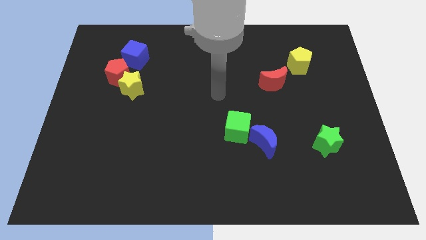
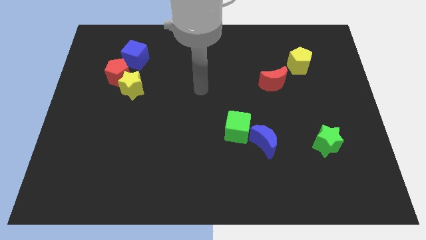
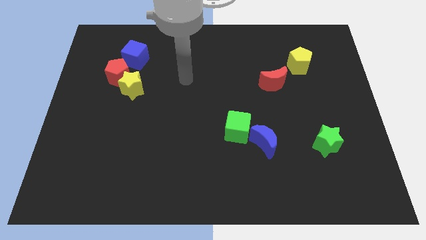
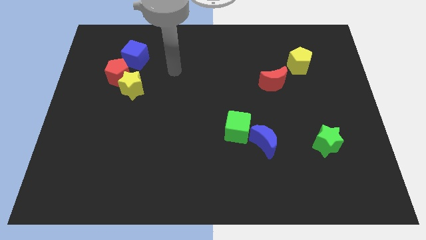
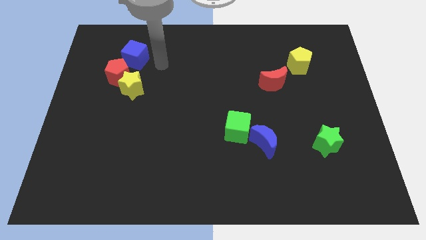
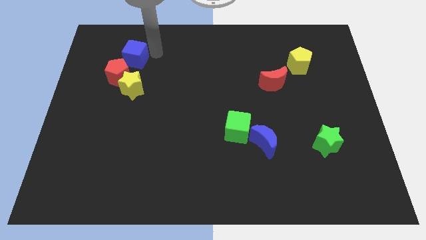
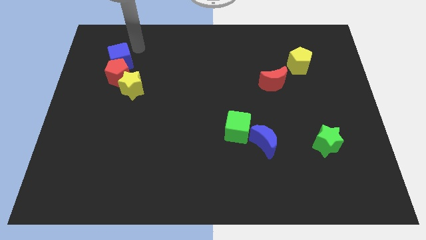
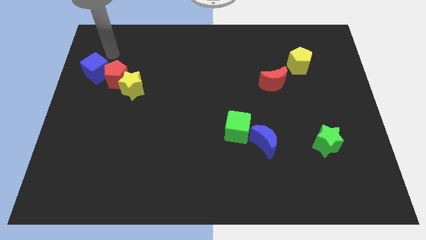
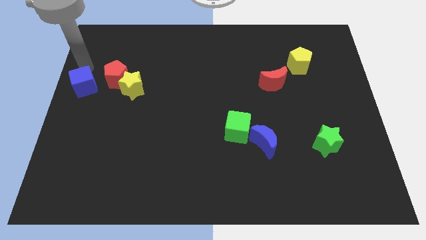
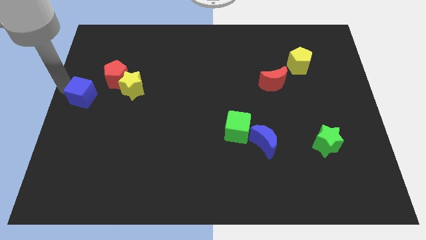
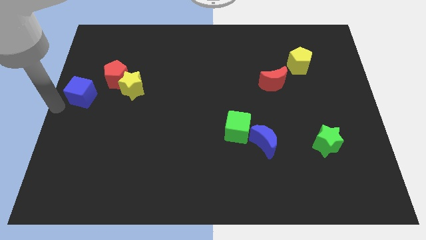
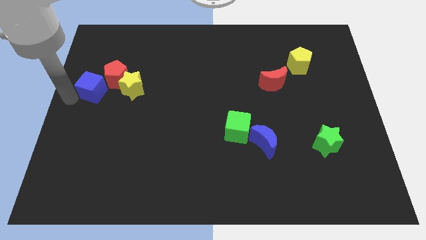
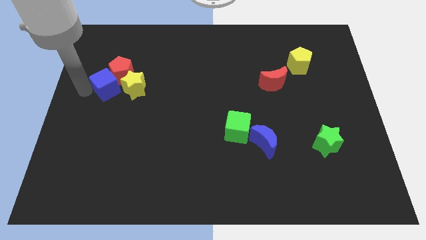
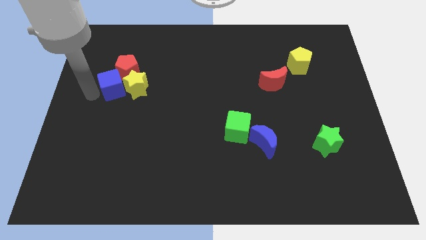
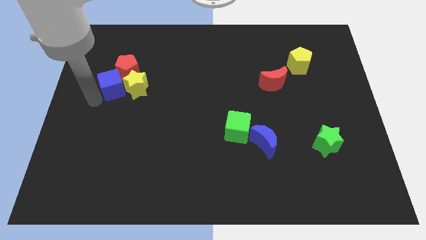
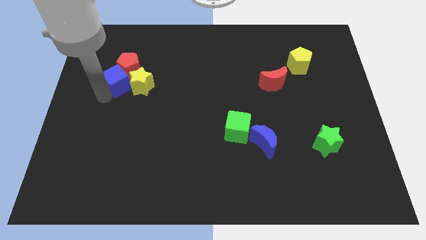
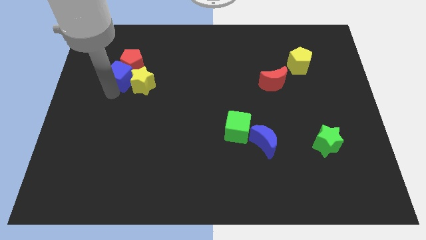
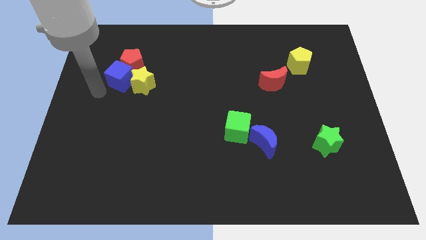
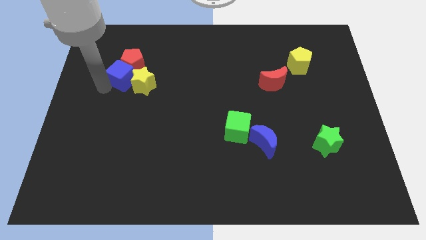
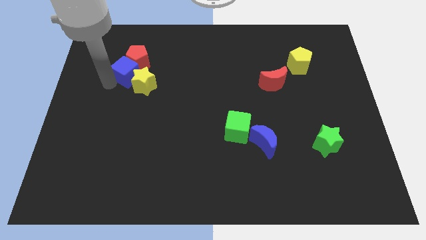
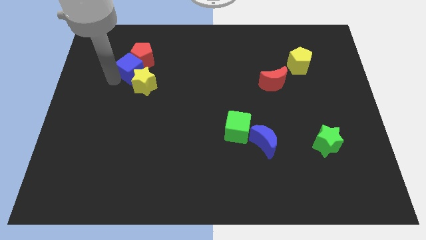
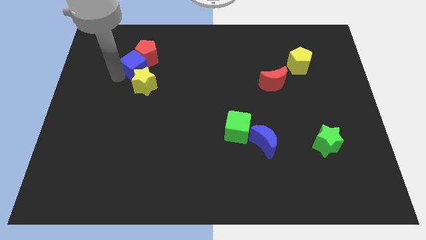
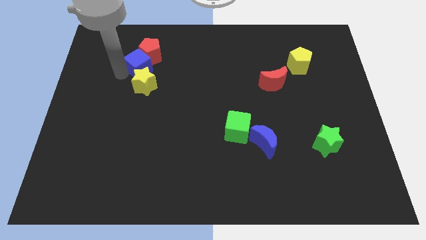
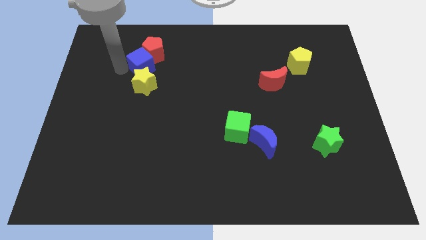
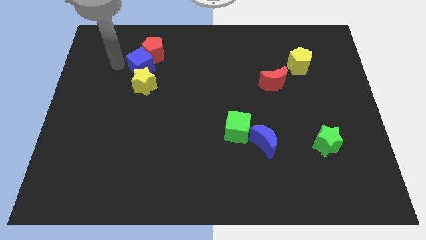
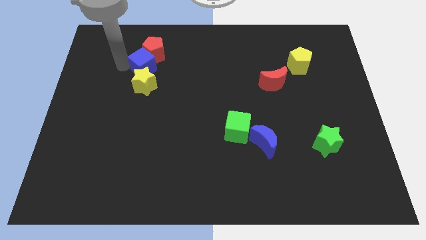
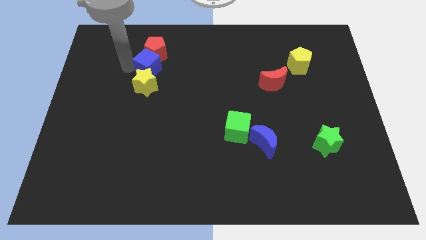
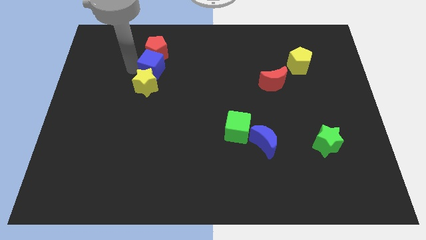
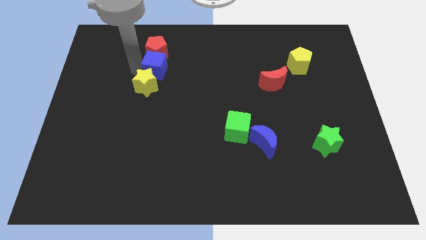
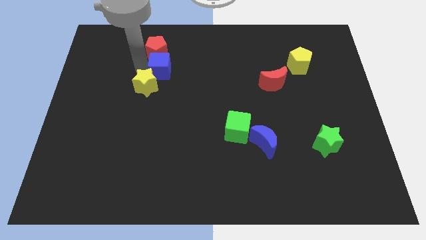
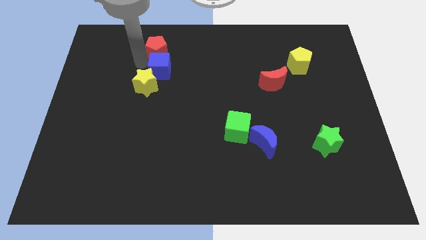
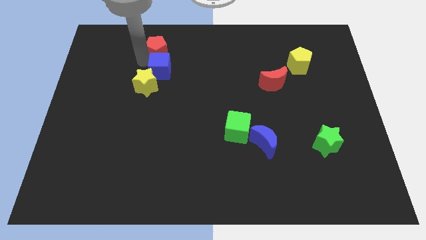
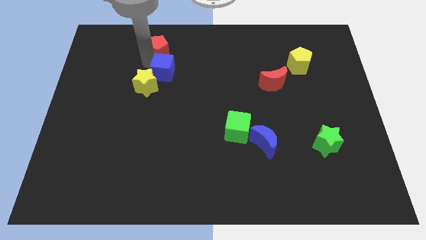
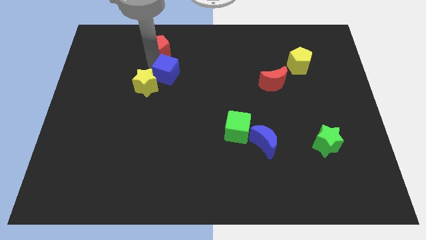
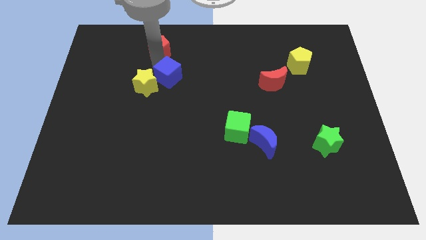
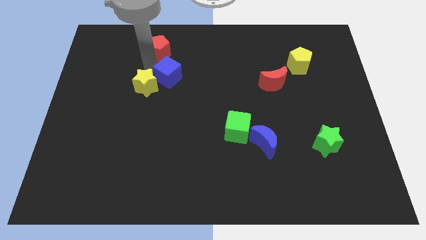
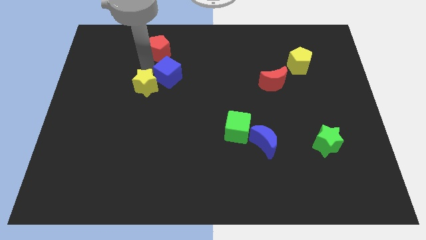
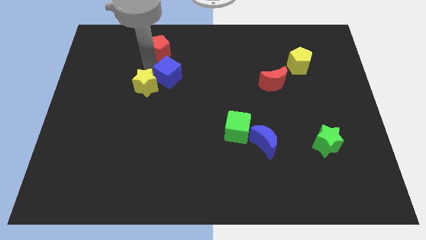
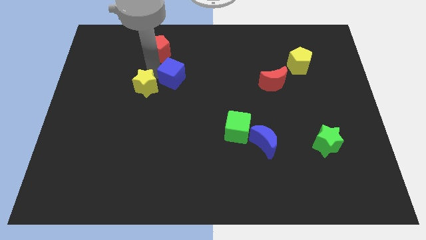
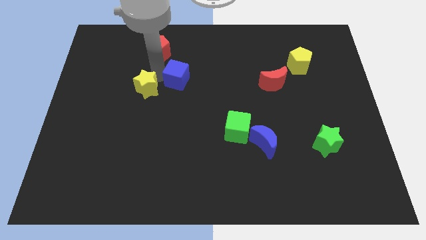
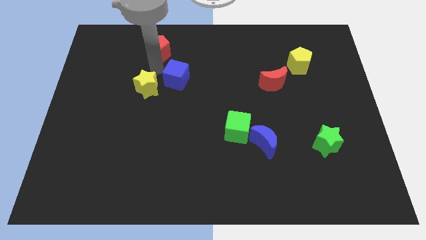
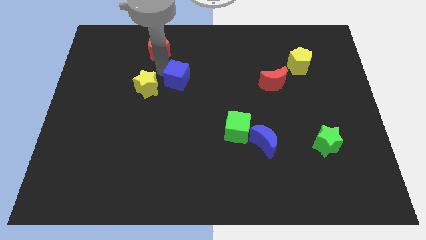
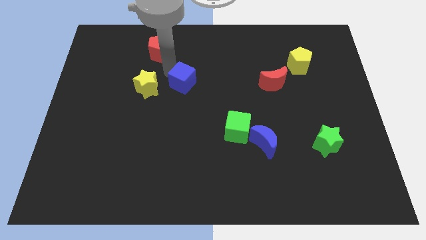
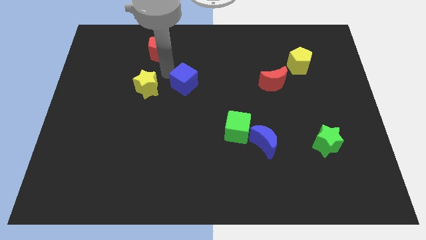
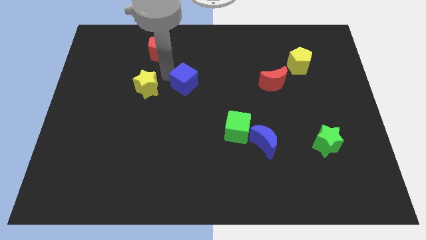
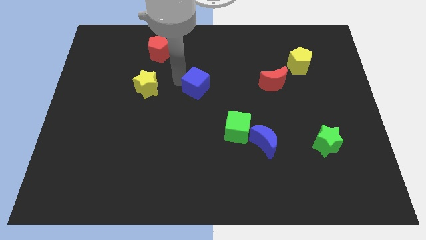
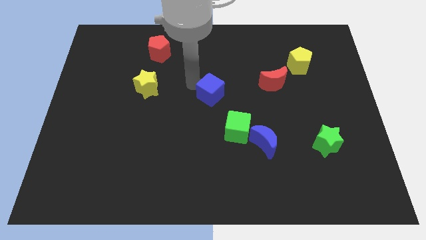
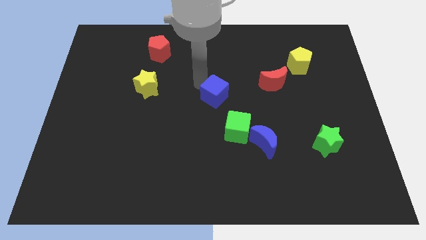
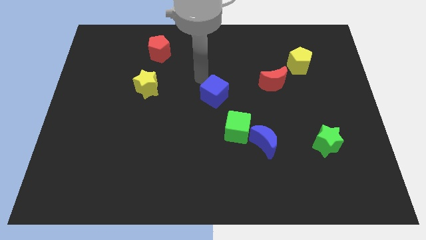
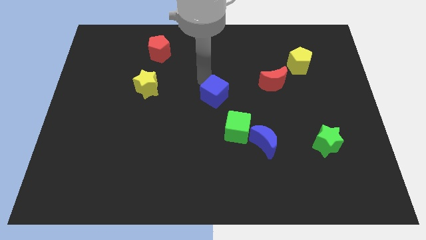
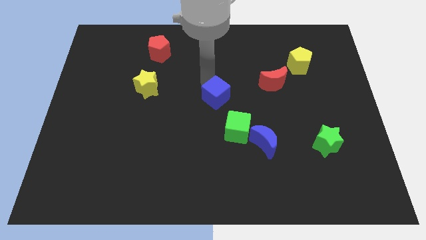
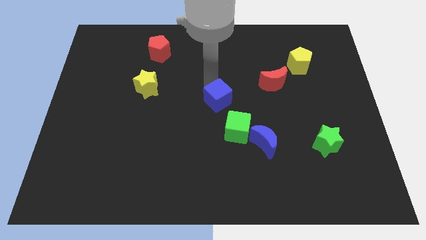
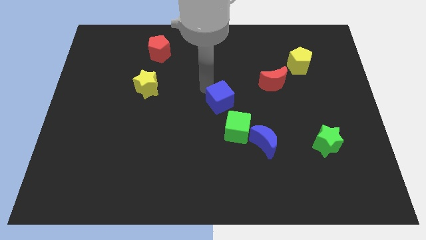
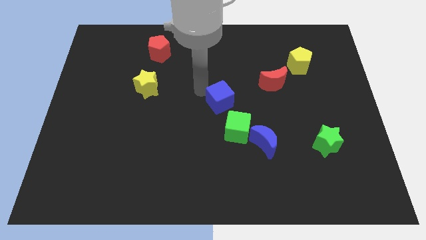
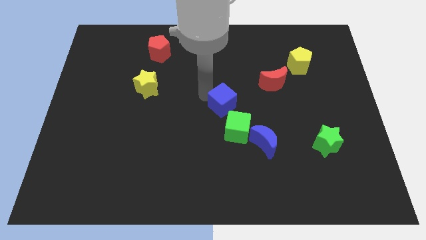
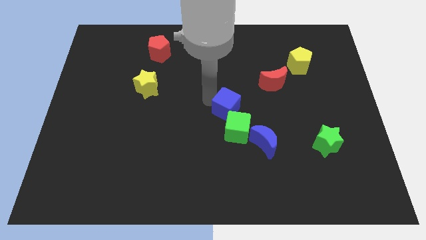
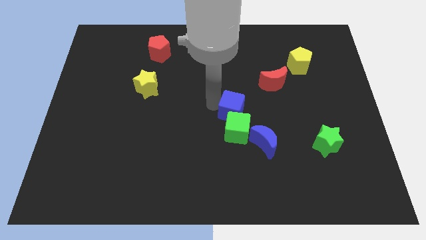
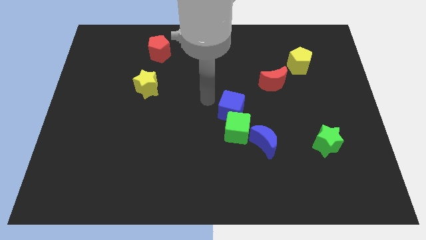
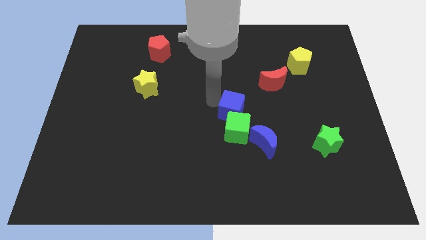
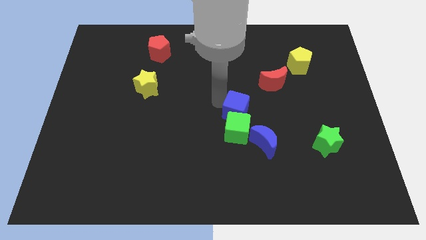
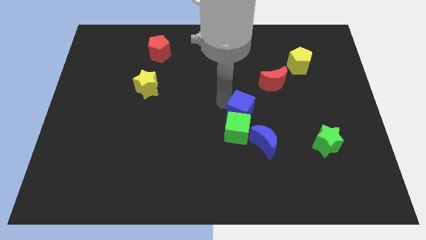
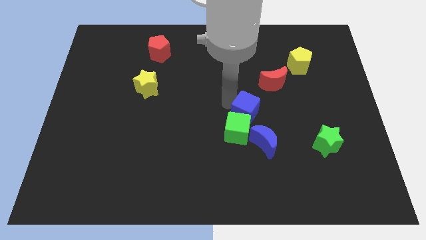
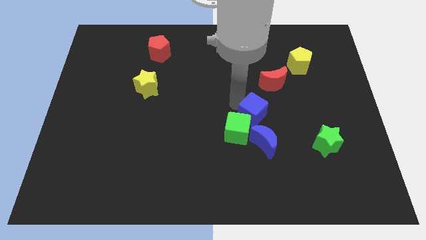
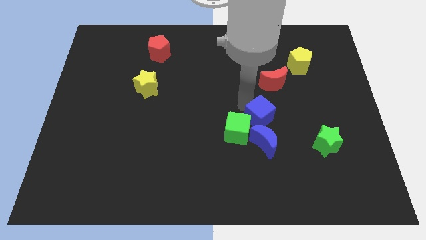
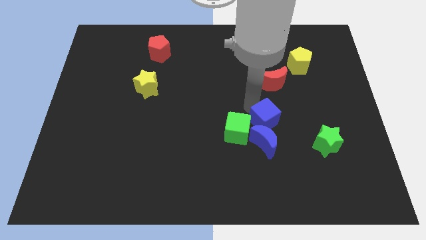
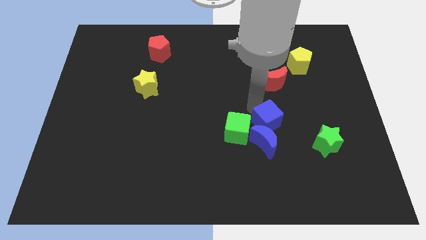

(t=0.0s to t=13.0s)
put the blue cube next to the blue moon

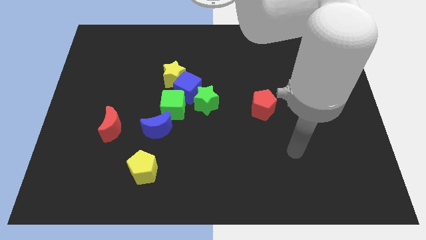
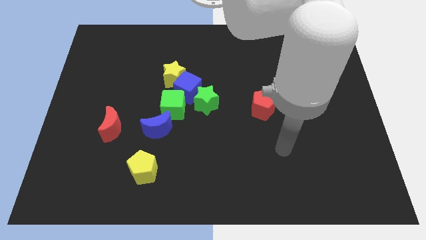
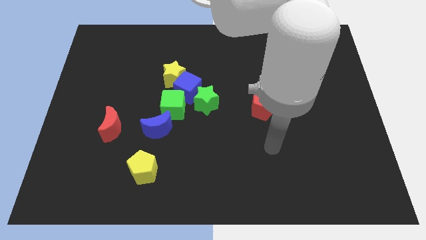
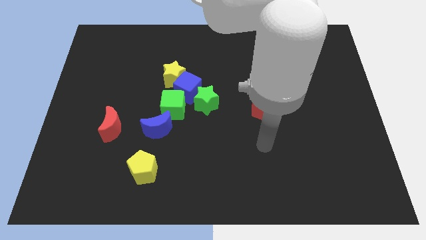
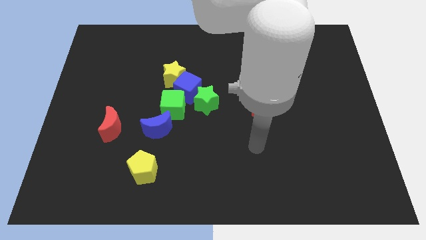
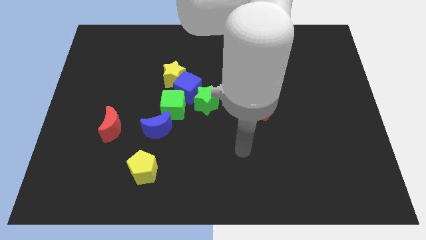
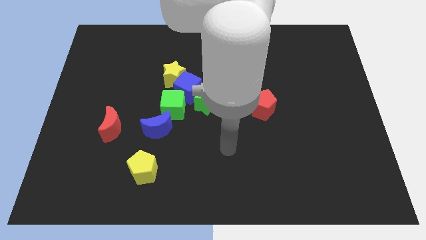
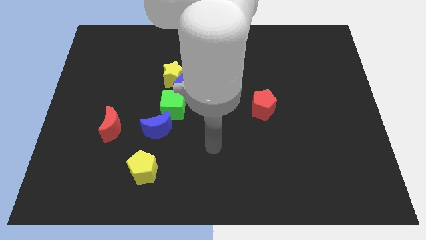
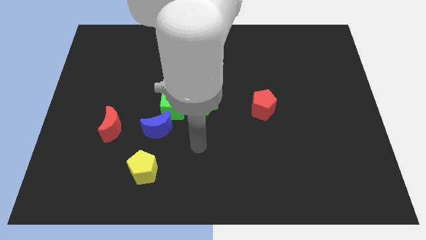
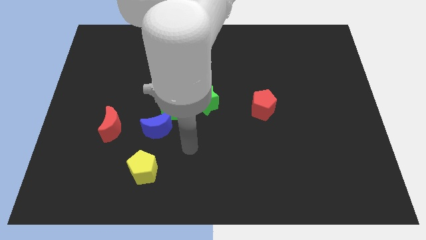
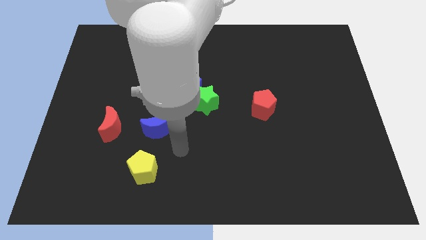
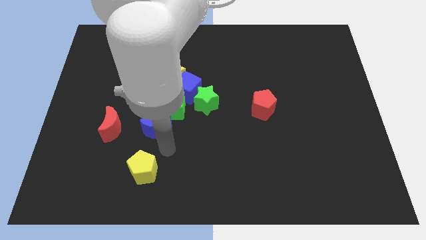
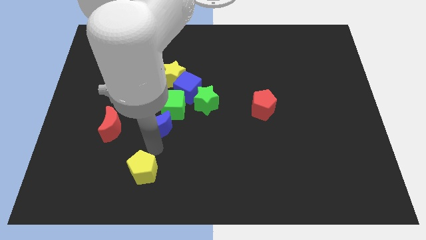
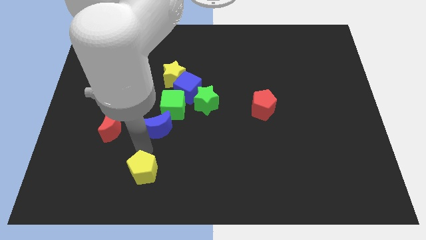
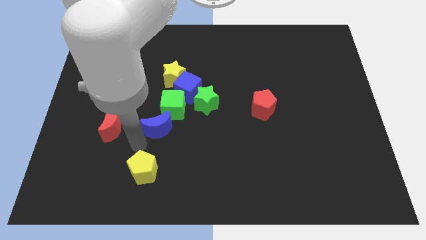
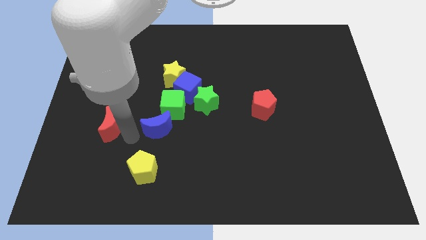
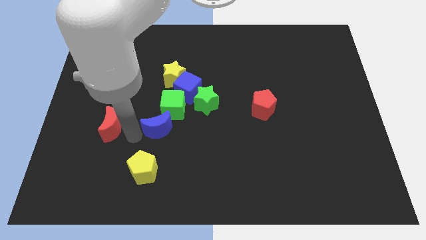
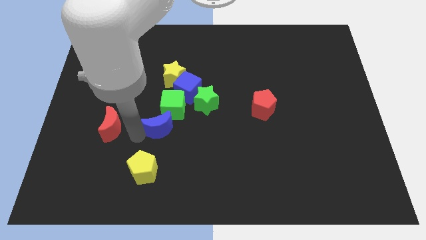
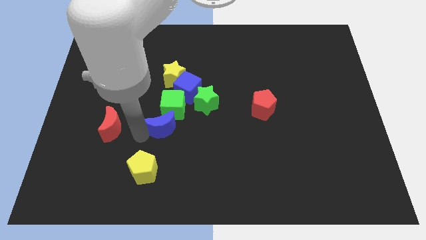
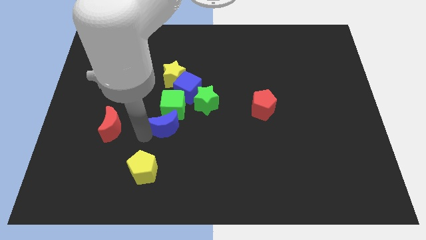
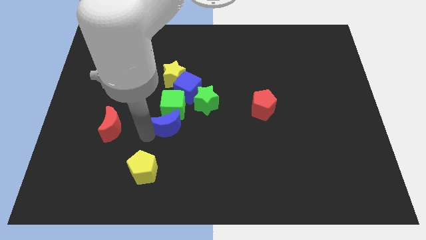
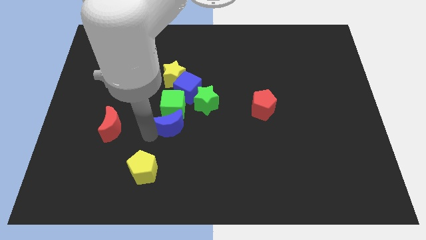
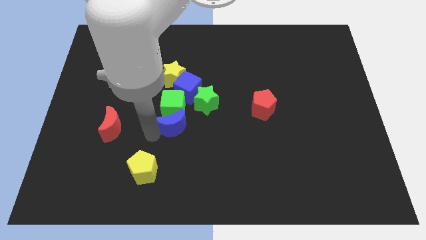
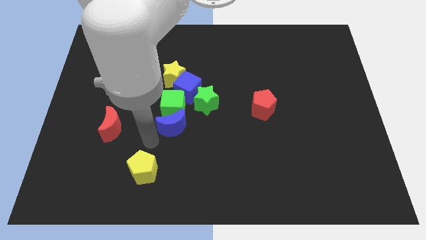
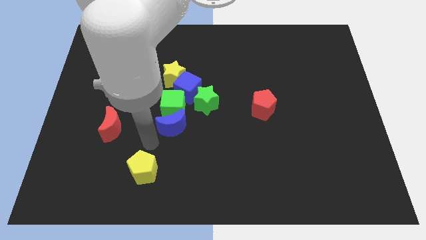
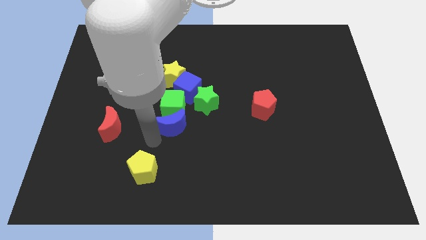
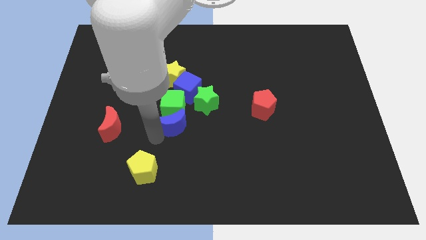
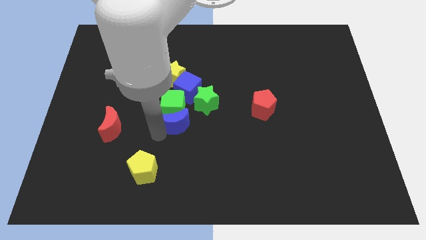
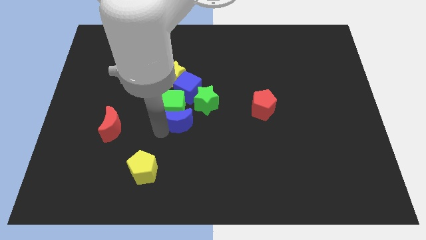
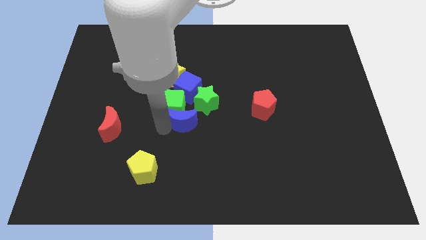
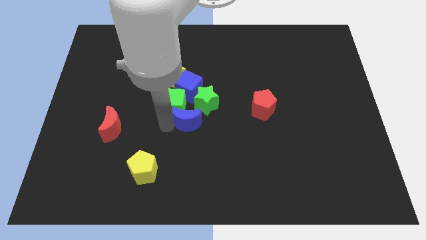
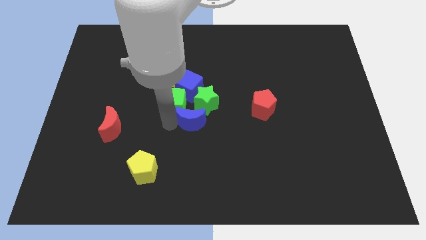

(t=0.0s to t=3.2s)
push the blue moon to the green star
